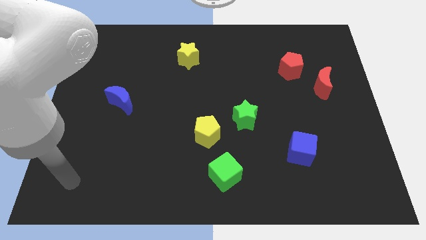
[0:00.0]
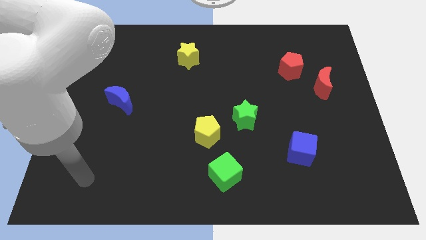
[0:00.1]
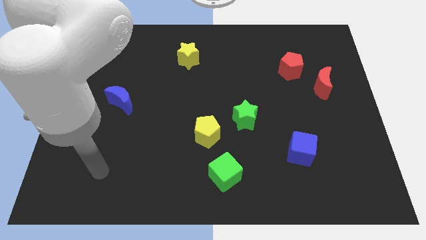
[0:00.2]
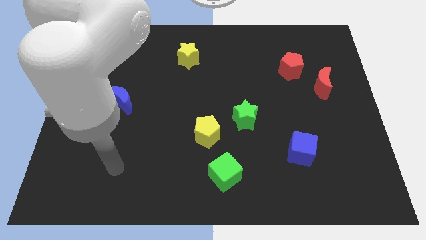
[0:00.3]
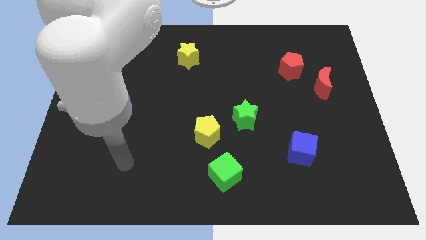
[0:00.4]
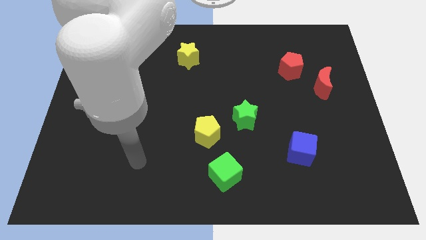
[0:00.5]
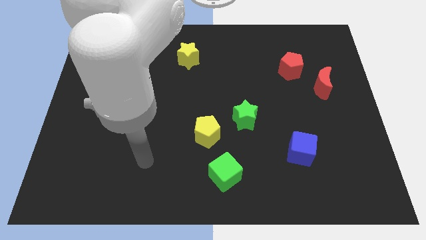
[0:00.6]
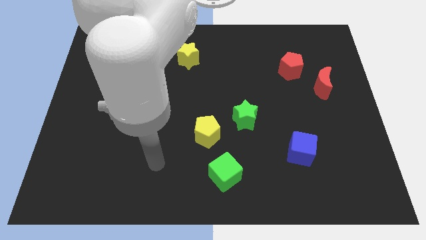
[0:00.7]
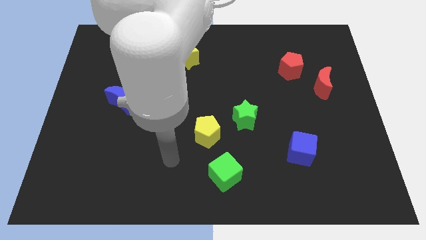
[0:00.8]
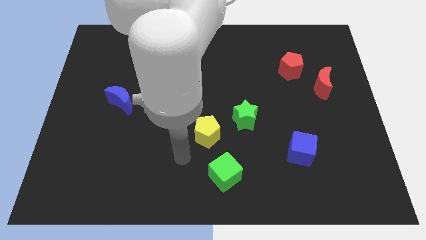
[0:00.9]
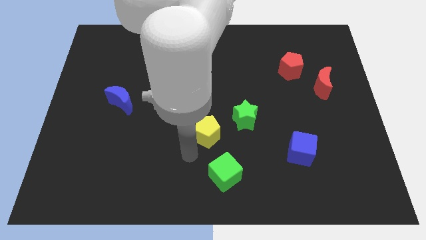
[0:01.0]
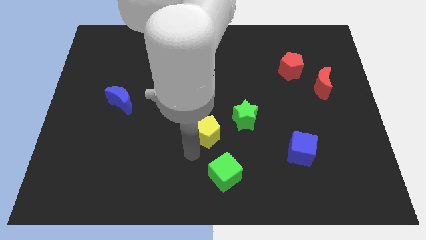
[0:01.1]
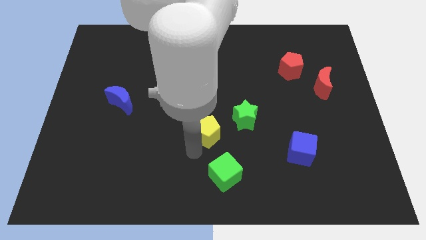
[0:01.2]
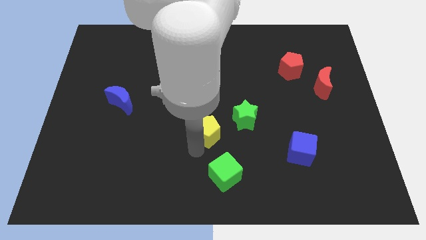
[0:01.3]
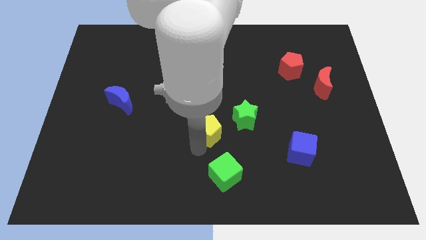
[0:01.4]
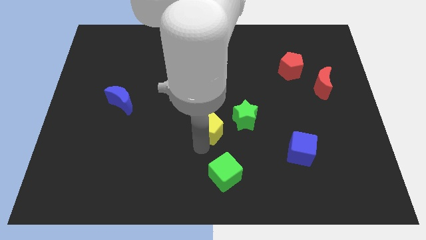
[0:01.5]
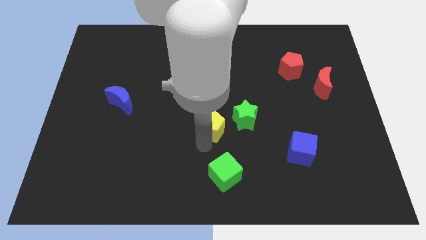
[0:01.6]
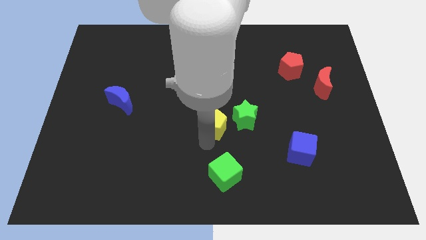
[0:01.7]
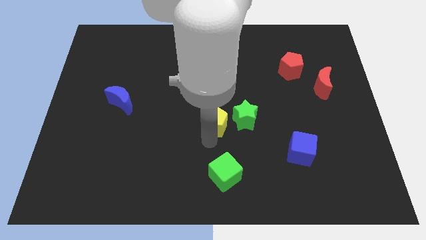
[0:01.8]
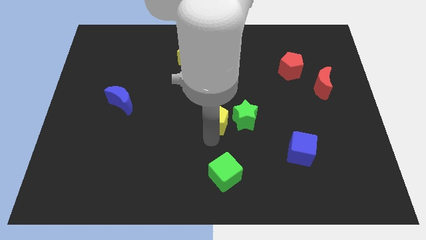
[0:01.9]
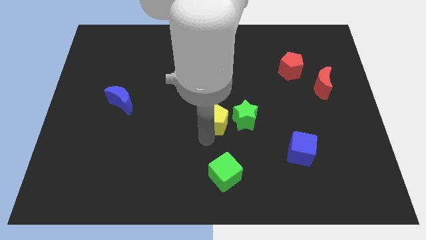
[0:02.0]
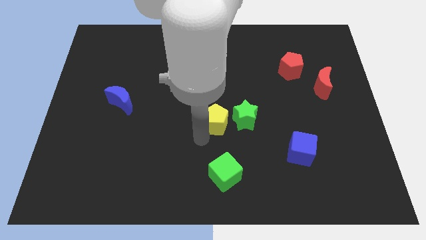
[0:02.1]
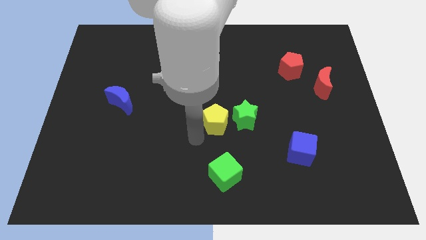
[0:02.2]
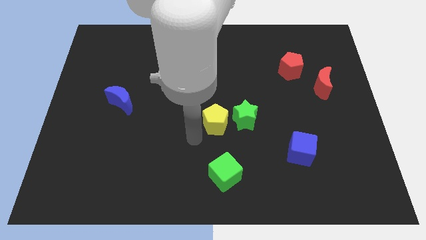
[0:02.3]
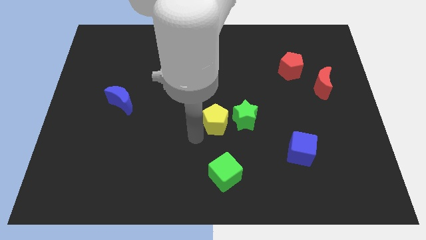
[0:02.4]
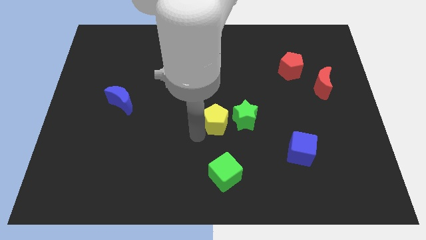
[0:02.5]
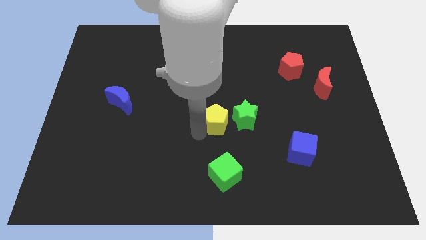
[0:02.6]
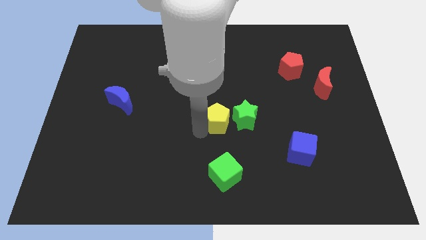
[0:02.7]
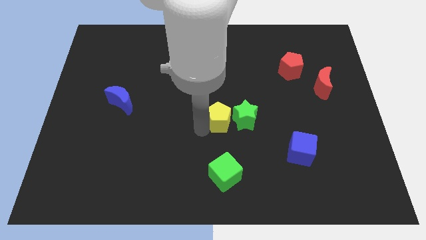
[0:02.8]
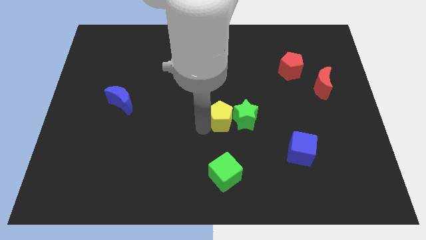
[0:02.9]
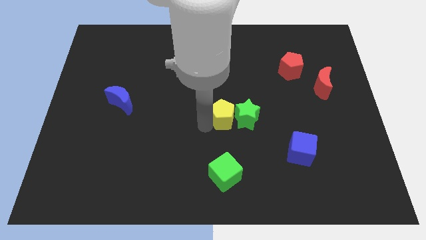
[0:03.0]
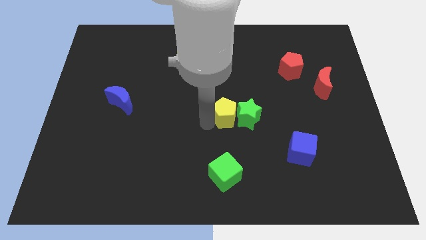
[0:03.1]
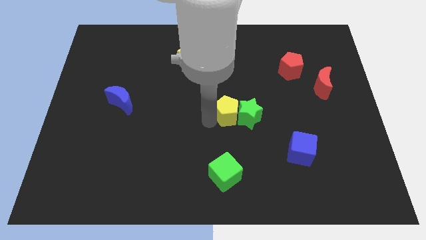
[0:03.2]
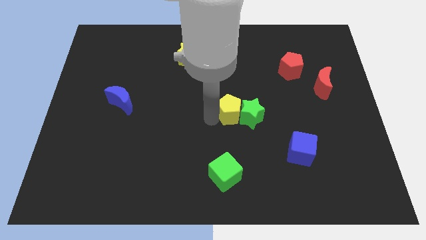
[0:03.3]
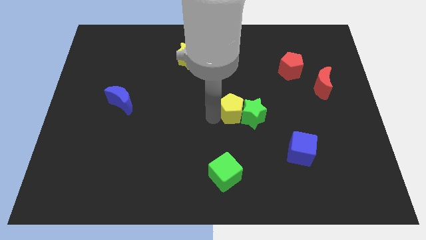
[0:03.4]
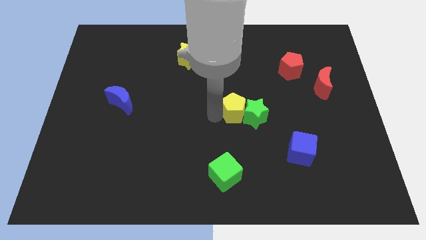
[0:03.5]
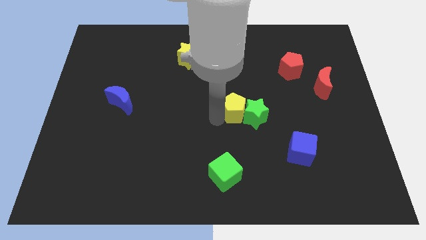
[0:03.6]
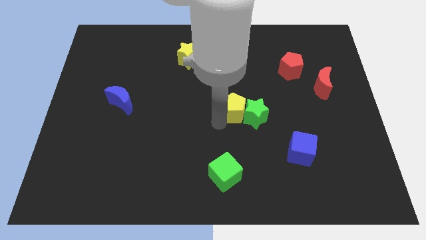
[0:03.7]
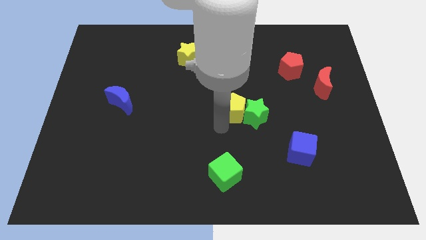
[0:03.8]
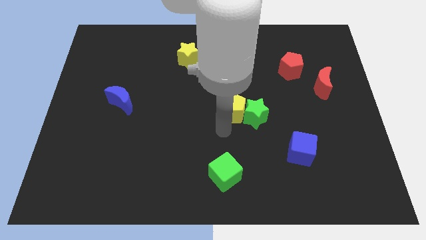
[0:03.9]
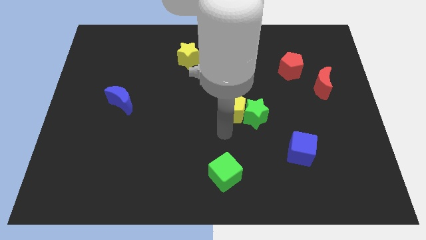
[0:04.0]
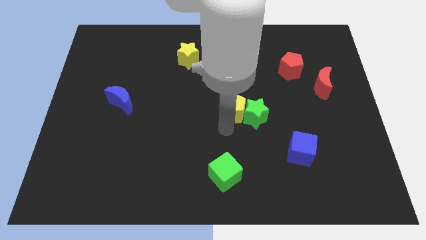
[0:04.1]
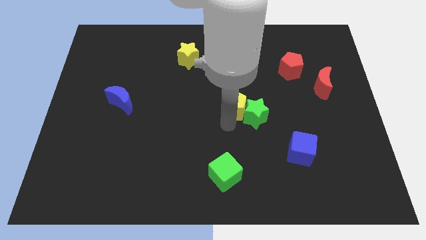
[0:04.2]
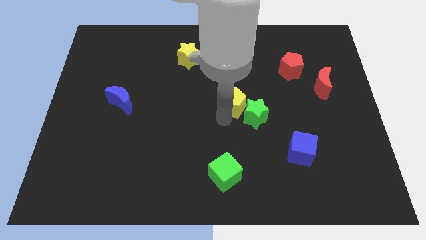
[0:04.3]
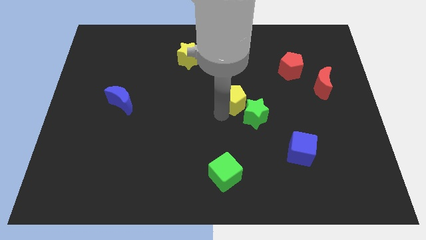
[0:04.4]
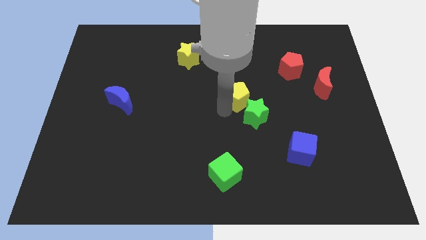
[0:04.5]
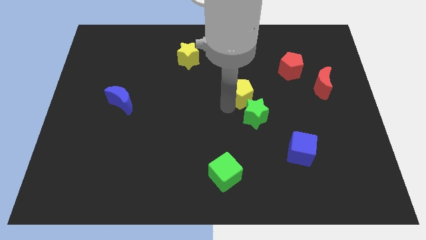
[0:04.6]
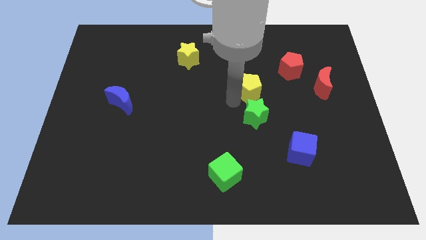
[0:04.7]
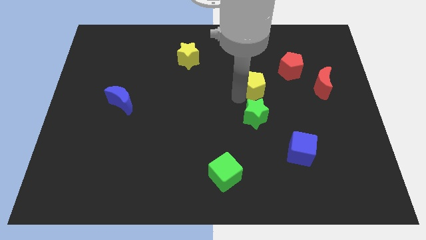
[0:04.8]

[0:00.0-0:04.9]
put the yellow pentagon to the bottom left side of the red pentagon

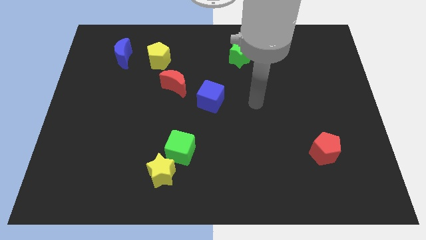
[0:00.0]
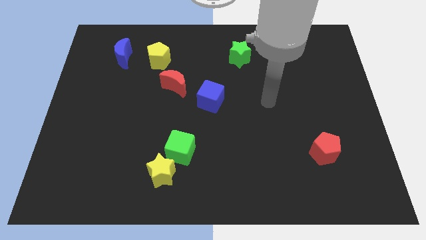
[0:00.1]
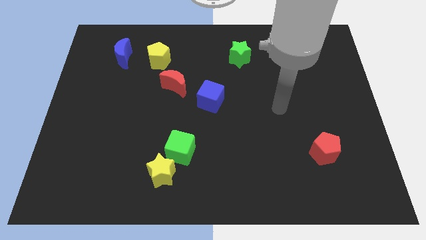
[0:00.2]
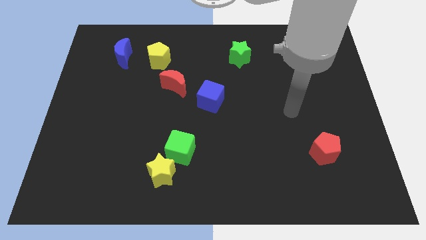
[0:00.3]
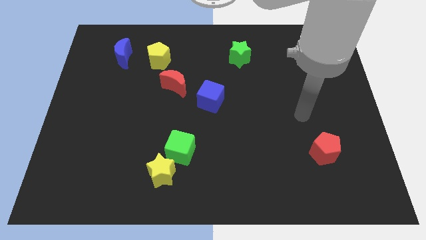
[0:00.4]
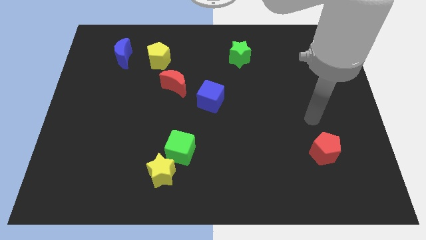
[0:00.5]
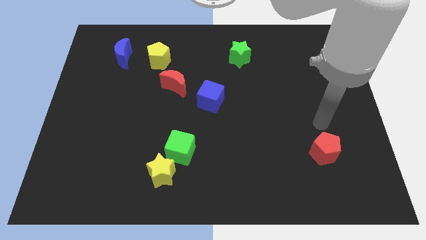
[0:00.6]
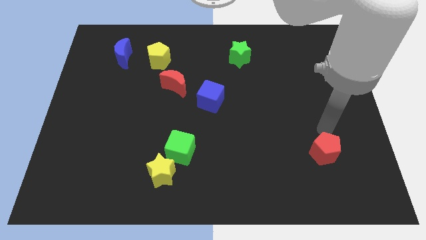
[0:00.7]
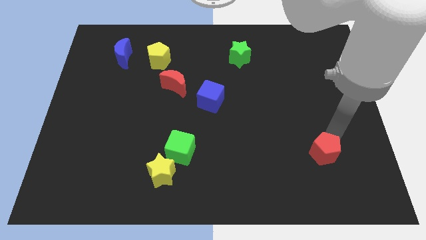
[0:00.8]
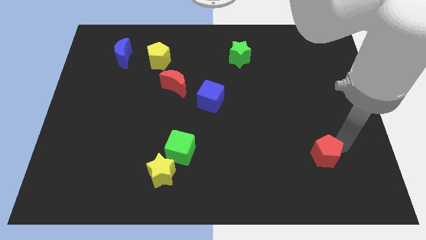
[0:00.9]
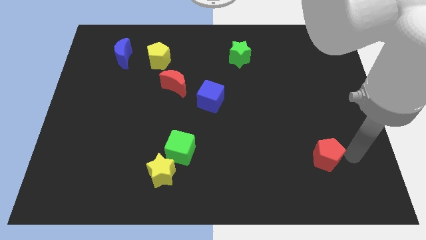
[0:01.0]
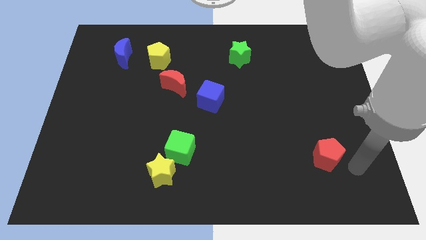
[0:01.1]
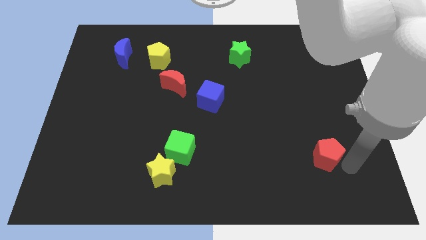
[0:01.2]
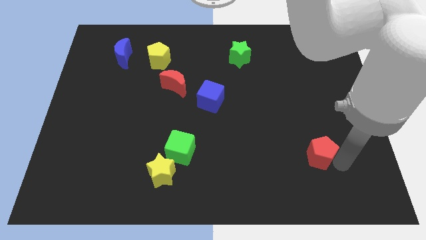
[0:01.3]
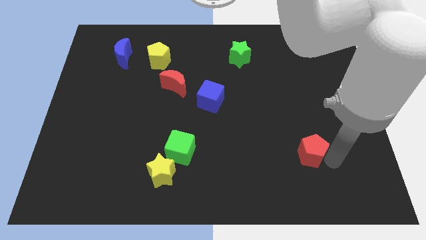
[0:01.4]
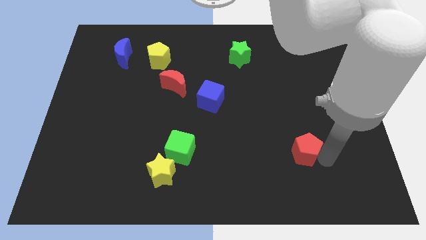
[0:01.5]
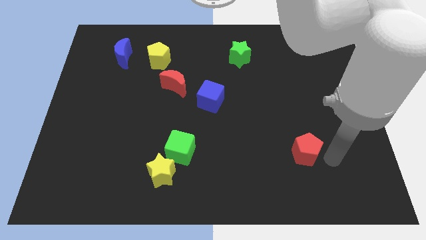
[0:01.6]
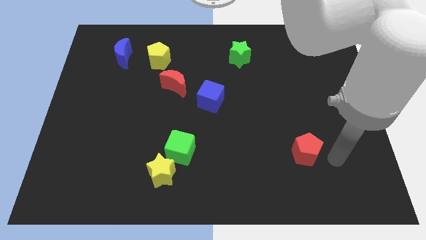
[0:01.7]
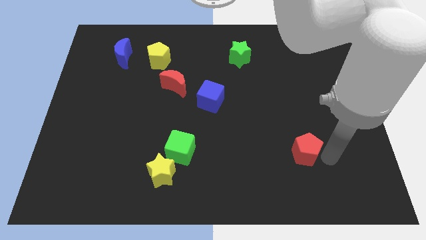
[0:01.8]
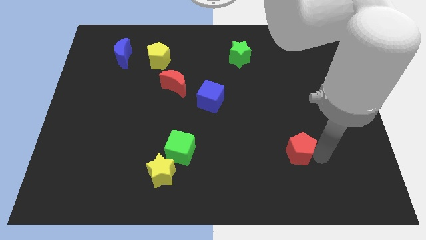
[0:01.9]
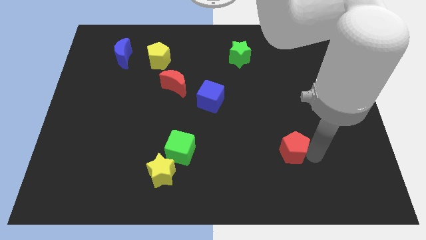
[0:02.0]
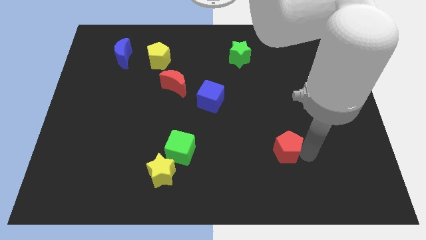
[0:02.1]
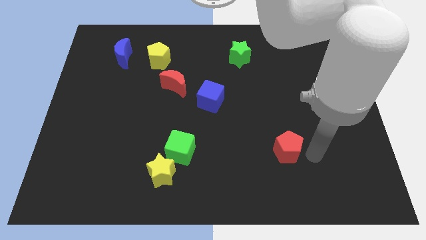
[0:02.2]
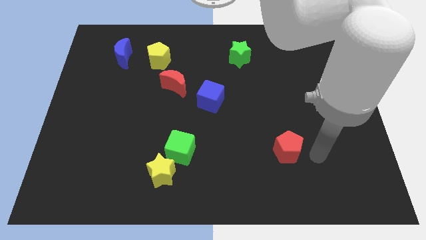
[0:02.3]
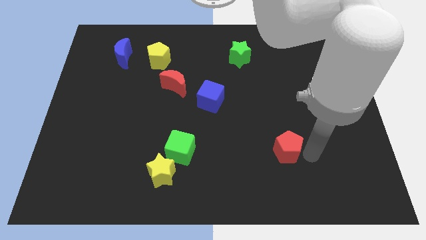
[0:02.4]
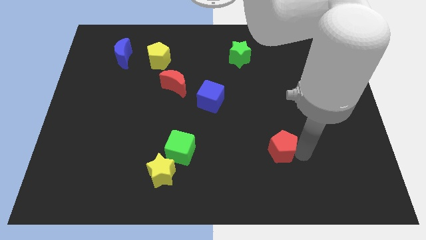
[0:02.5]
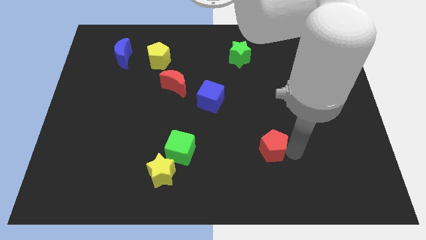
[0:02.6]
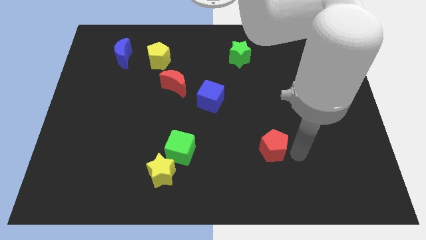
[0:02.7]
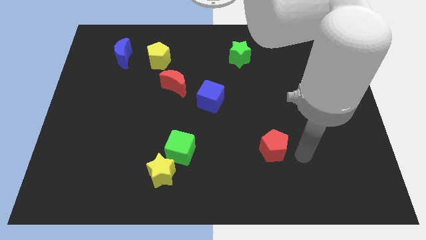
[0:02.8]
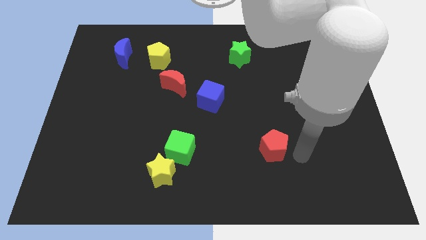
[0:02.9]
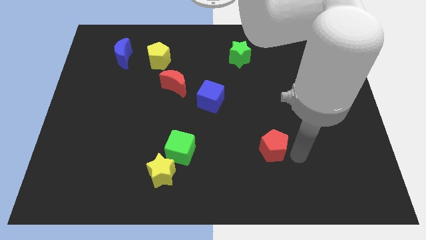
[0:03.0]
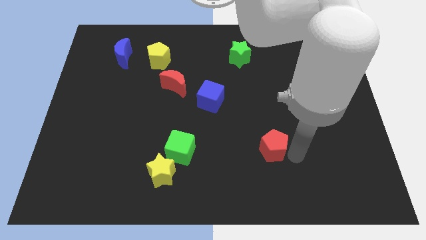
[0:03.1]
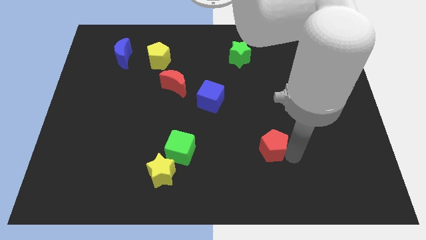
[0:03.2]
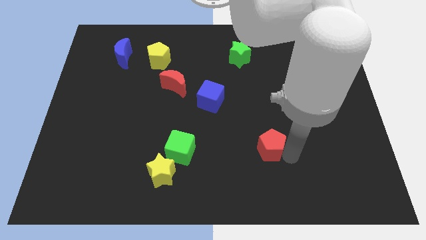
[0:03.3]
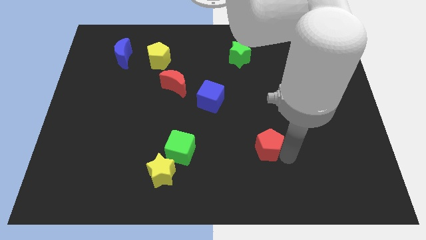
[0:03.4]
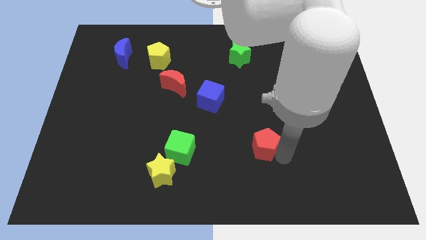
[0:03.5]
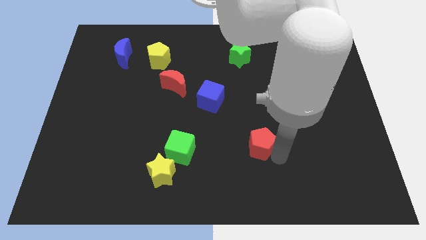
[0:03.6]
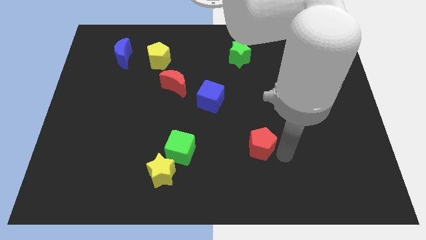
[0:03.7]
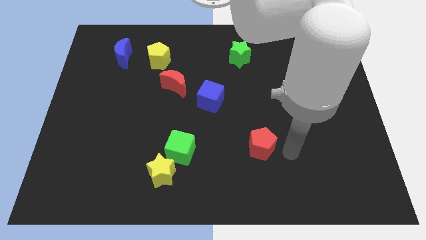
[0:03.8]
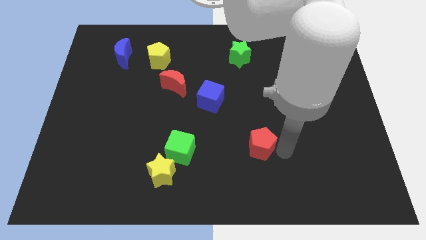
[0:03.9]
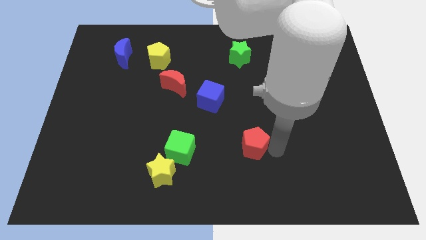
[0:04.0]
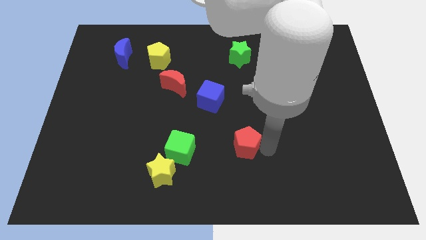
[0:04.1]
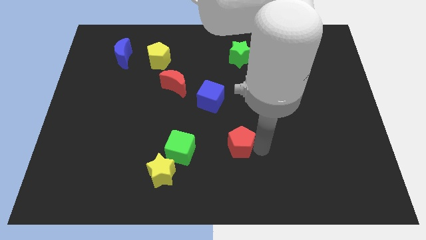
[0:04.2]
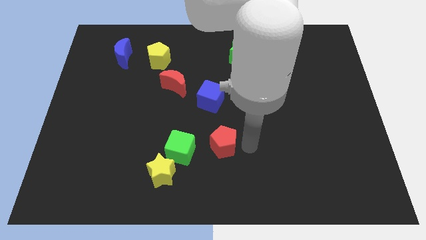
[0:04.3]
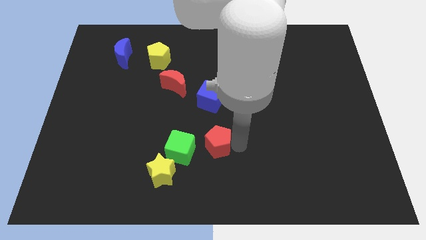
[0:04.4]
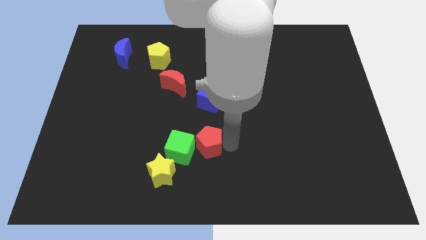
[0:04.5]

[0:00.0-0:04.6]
move the red pentagon to the top right side of the yellow star
